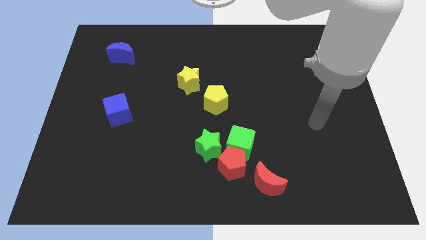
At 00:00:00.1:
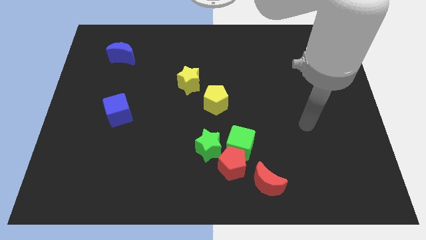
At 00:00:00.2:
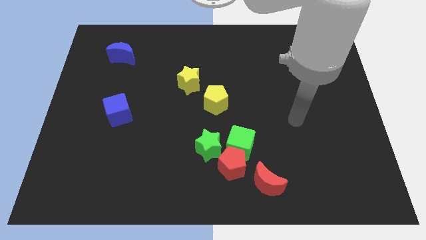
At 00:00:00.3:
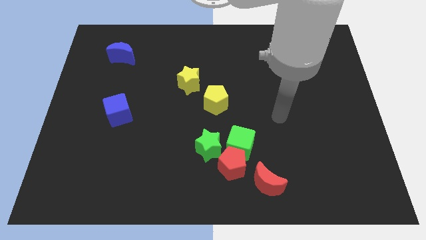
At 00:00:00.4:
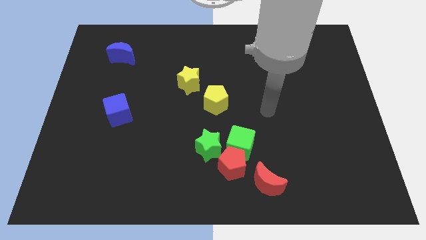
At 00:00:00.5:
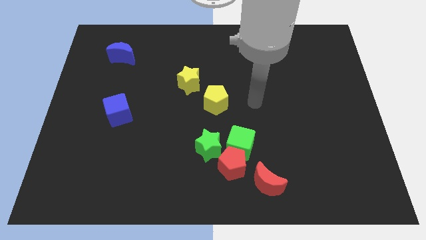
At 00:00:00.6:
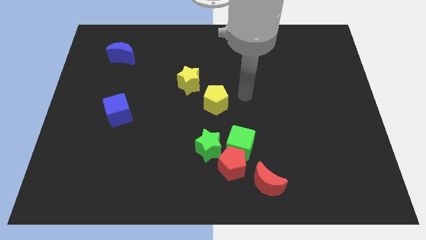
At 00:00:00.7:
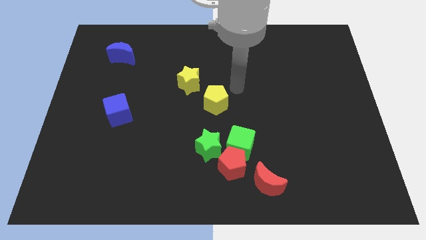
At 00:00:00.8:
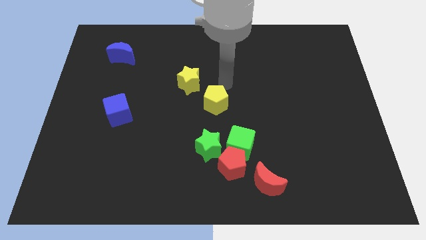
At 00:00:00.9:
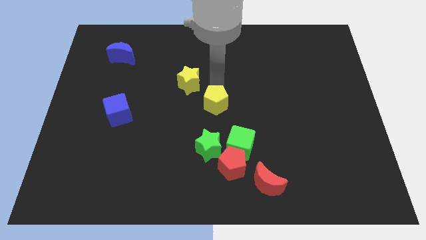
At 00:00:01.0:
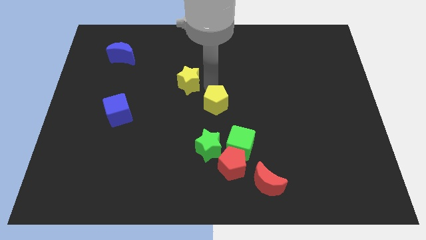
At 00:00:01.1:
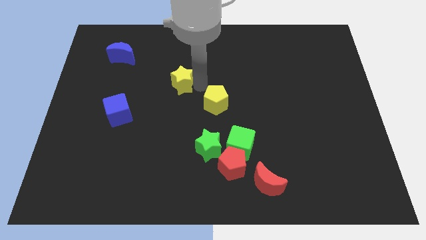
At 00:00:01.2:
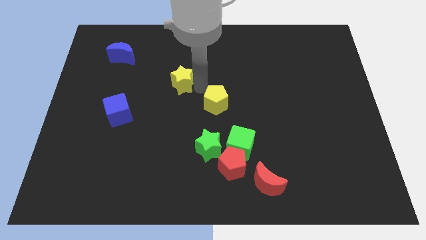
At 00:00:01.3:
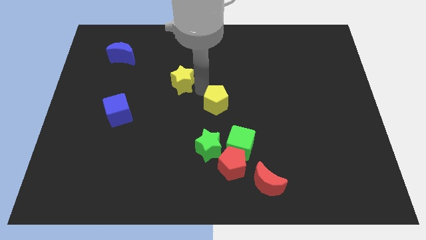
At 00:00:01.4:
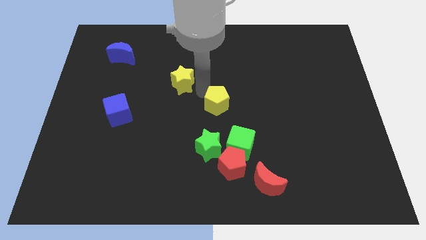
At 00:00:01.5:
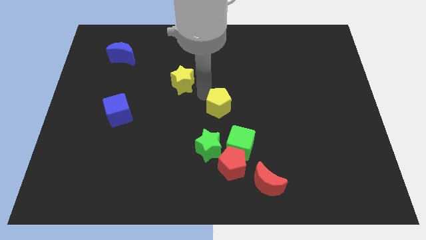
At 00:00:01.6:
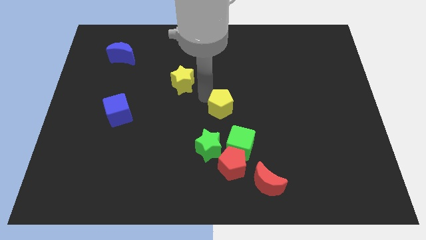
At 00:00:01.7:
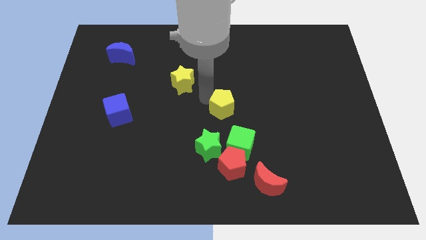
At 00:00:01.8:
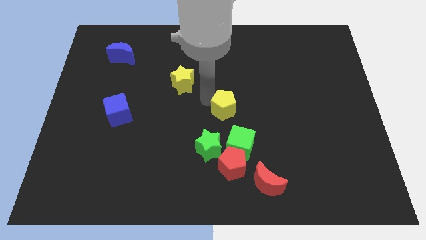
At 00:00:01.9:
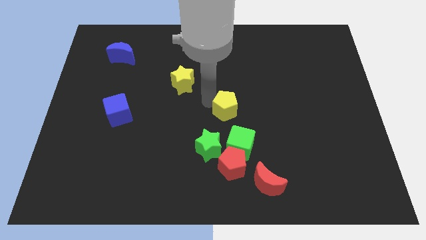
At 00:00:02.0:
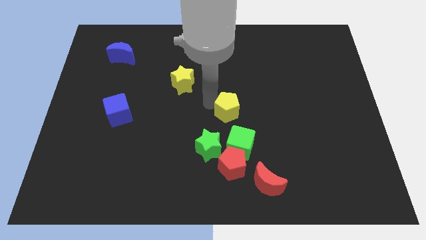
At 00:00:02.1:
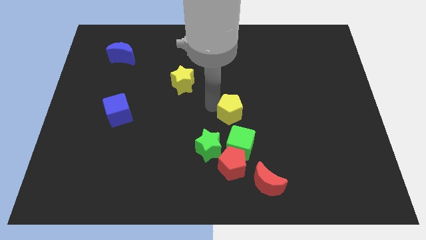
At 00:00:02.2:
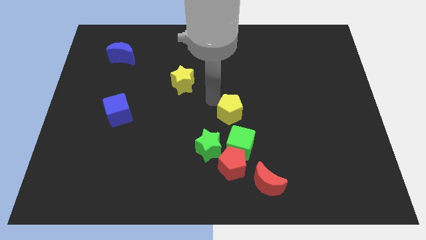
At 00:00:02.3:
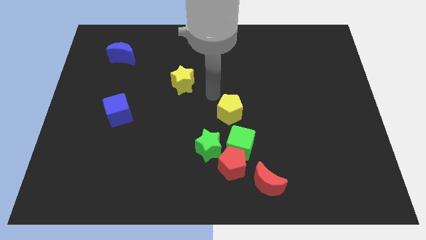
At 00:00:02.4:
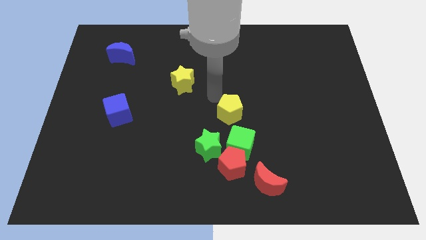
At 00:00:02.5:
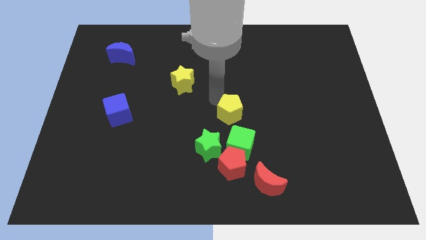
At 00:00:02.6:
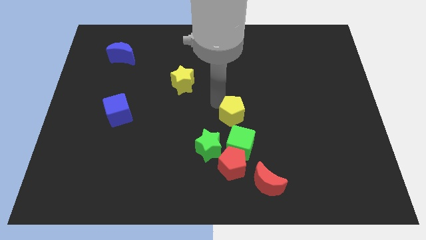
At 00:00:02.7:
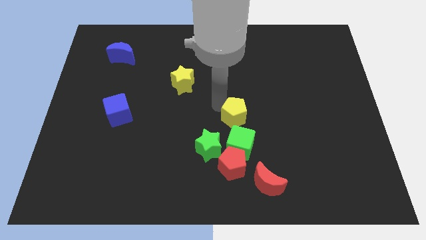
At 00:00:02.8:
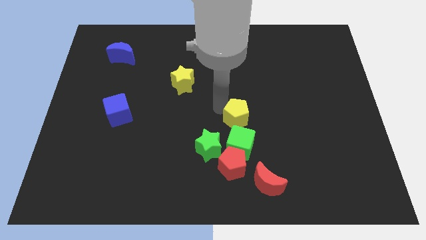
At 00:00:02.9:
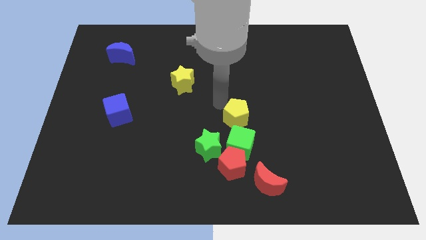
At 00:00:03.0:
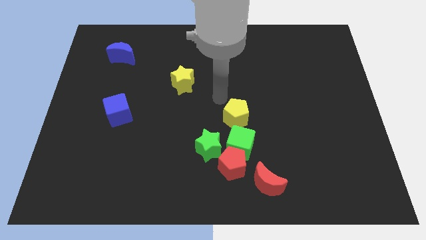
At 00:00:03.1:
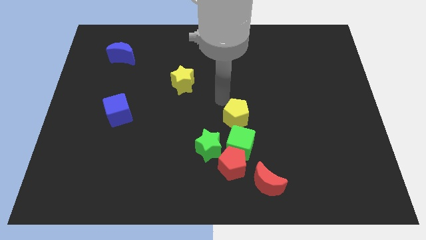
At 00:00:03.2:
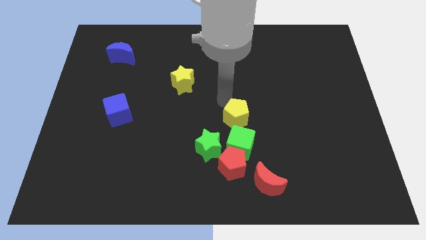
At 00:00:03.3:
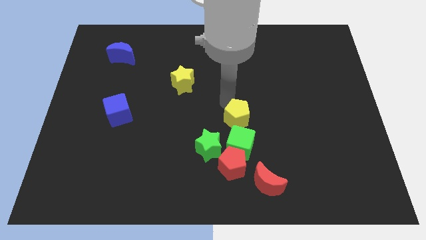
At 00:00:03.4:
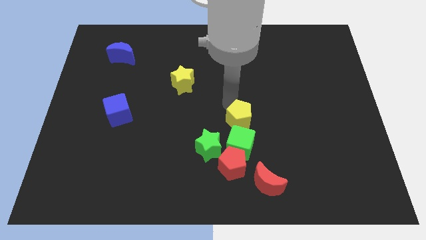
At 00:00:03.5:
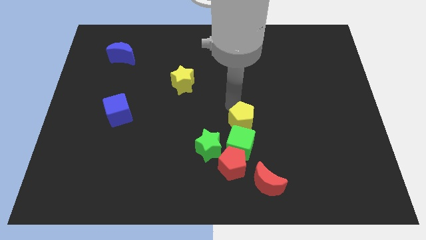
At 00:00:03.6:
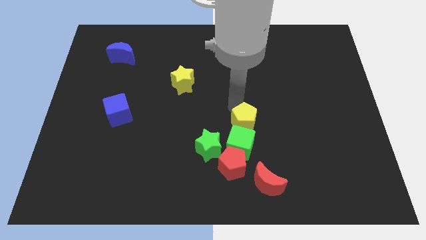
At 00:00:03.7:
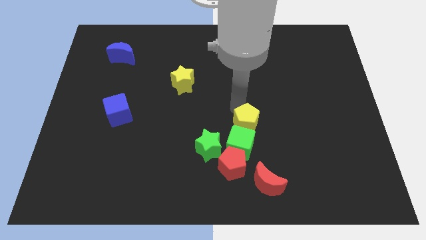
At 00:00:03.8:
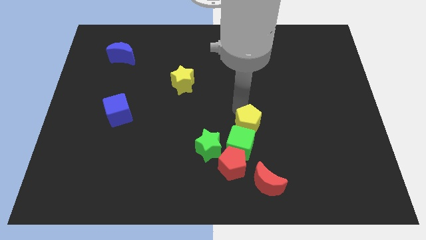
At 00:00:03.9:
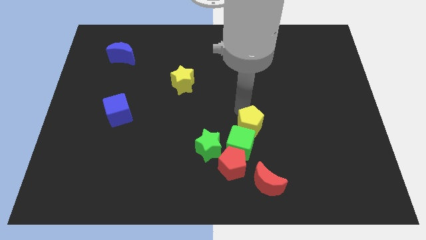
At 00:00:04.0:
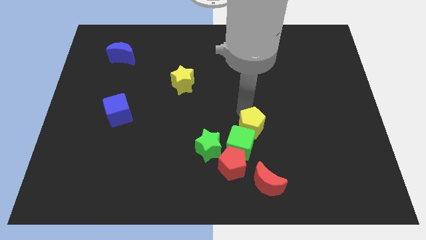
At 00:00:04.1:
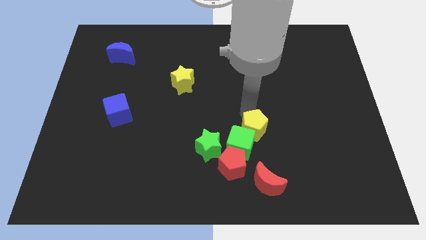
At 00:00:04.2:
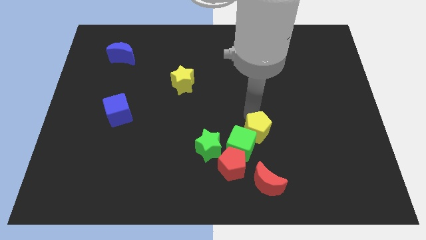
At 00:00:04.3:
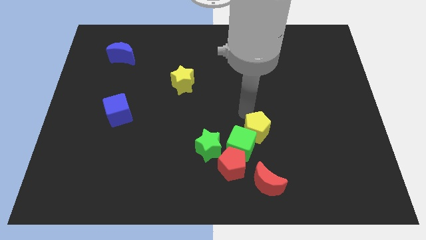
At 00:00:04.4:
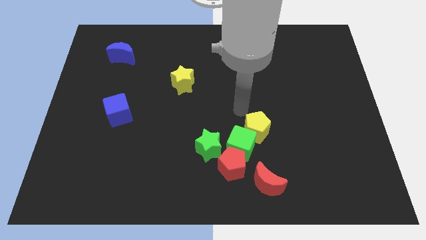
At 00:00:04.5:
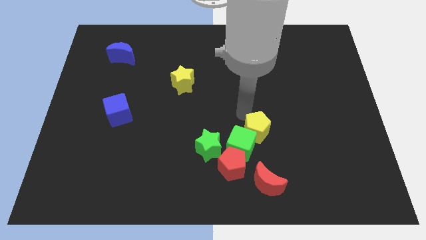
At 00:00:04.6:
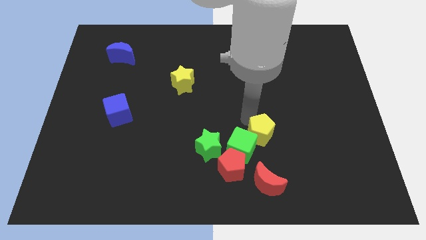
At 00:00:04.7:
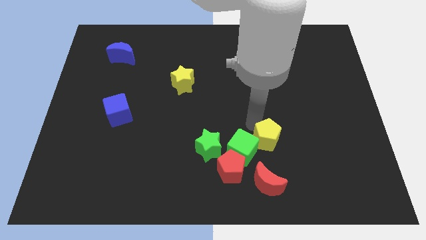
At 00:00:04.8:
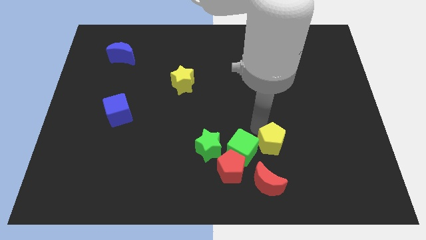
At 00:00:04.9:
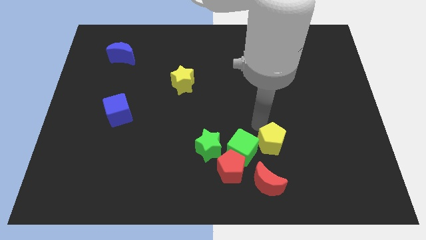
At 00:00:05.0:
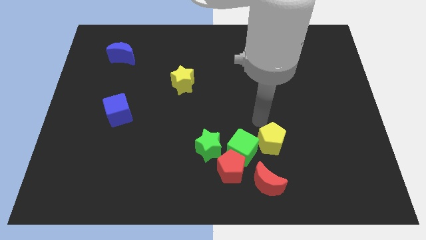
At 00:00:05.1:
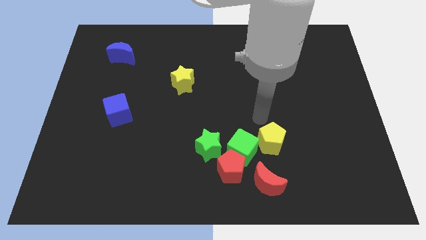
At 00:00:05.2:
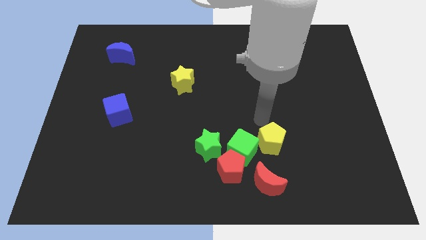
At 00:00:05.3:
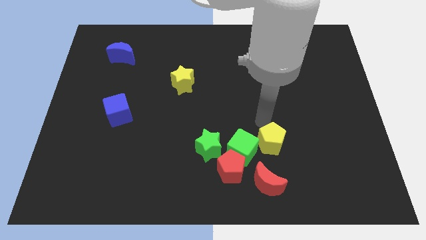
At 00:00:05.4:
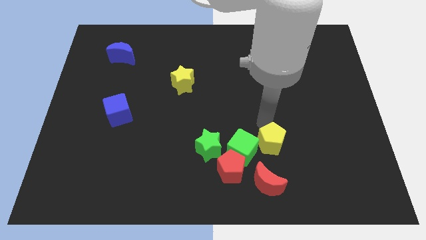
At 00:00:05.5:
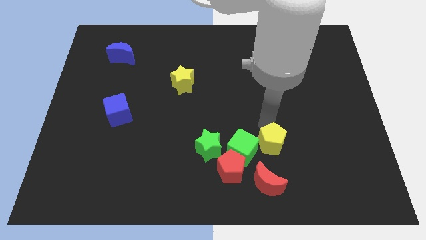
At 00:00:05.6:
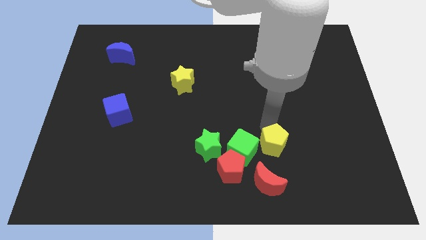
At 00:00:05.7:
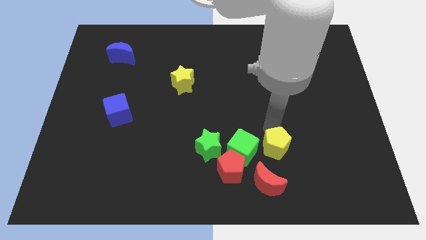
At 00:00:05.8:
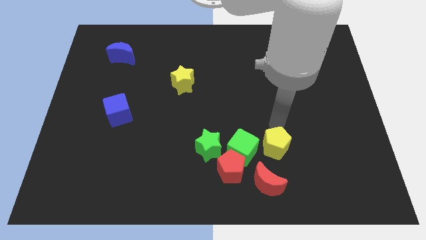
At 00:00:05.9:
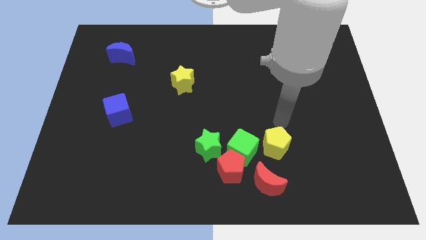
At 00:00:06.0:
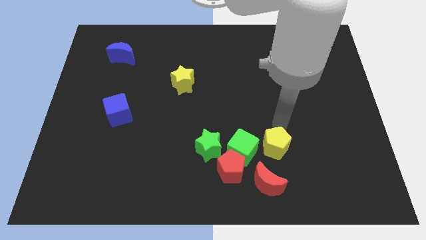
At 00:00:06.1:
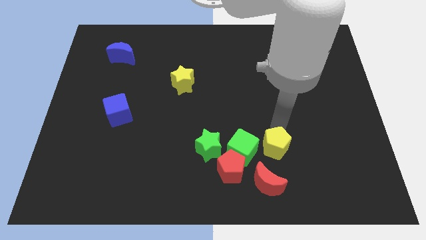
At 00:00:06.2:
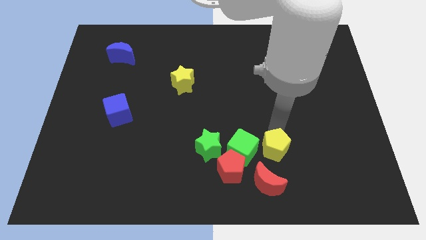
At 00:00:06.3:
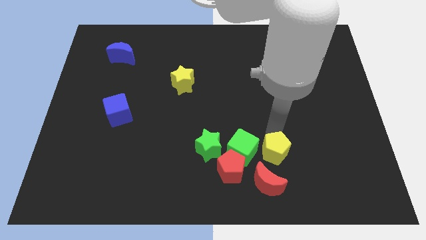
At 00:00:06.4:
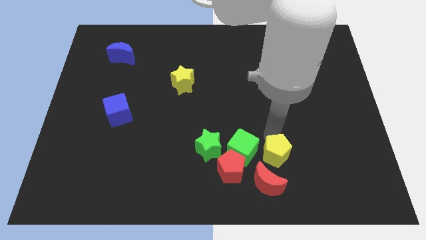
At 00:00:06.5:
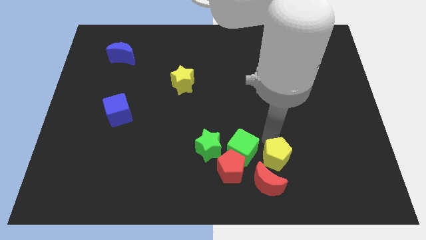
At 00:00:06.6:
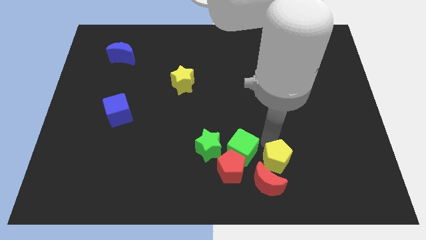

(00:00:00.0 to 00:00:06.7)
put the yellow pentagon to the red moon
